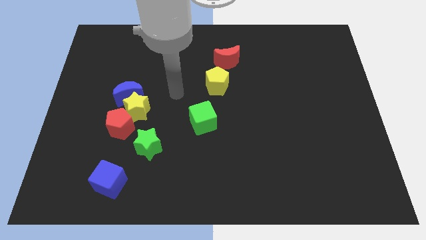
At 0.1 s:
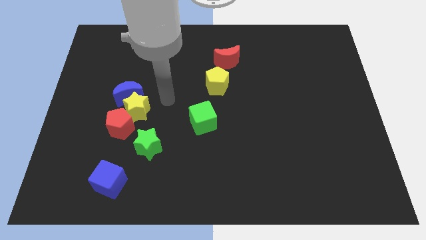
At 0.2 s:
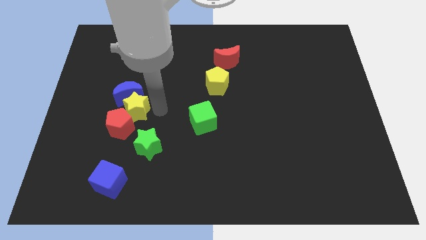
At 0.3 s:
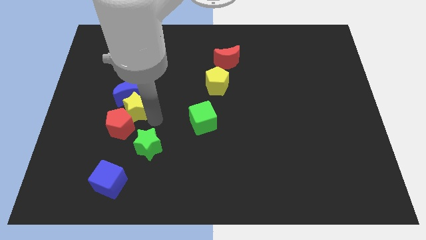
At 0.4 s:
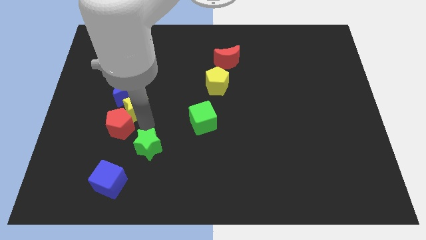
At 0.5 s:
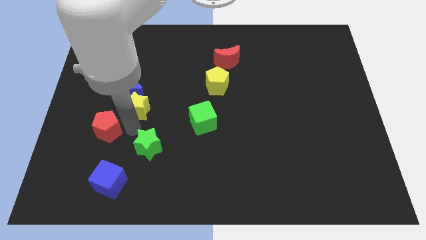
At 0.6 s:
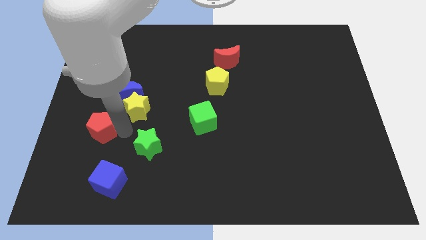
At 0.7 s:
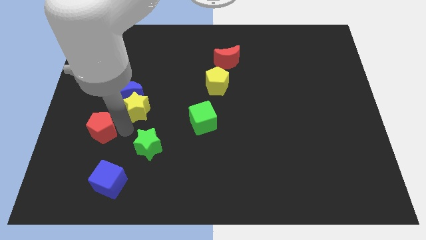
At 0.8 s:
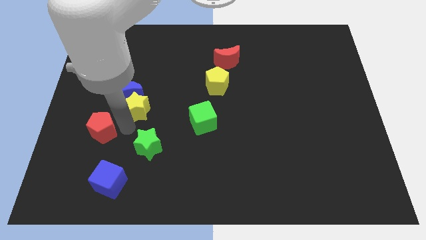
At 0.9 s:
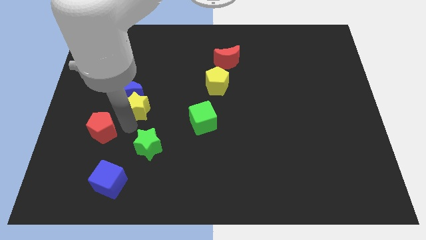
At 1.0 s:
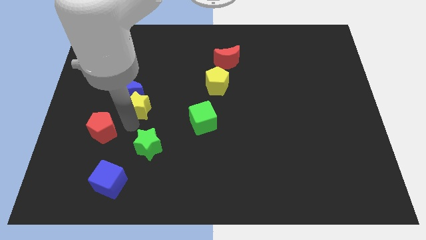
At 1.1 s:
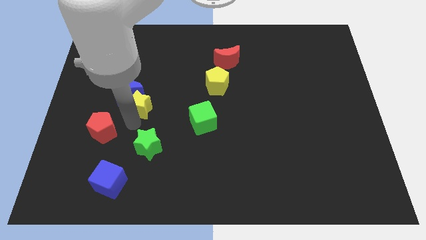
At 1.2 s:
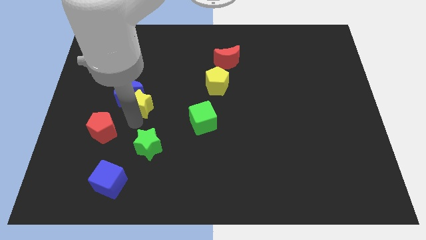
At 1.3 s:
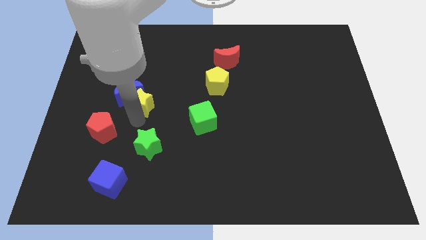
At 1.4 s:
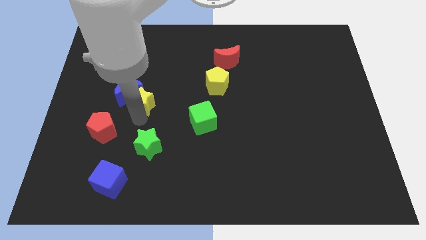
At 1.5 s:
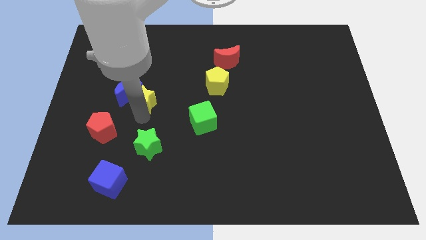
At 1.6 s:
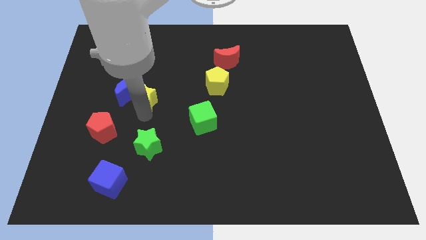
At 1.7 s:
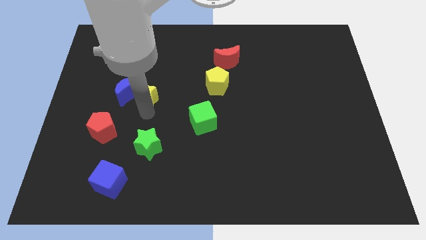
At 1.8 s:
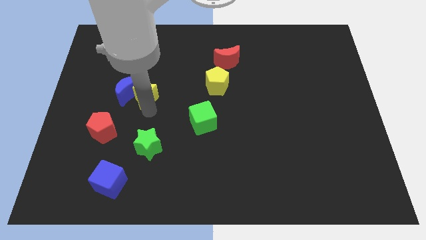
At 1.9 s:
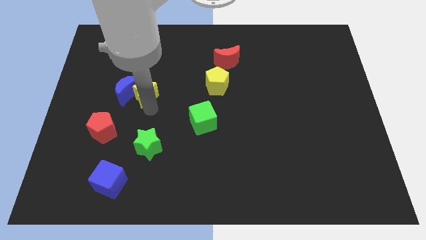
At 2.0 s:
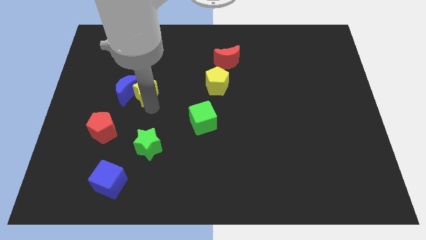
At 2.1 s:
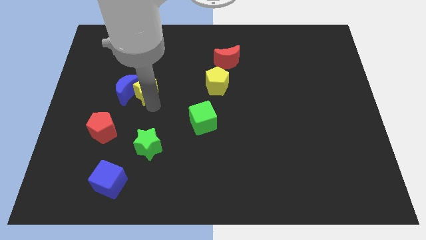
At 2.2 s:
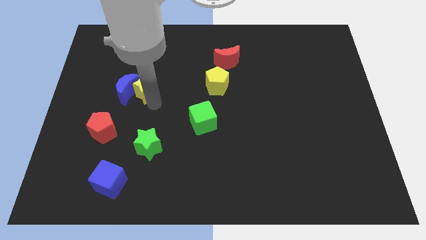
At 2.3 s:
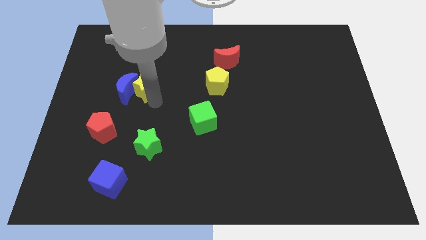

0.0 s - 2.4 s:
pull the yellow star apart from the group

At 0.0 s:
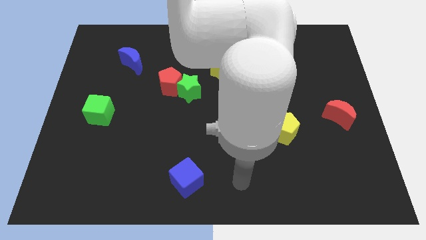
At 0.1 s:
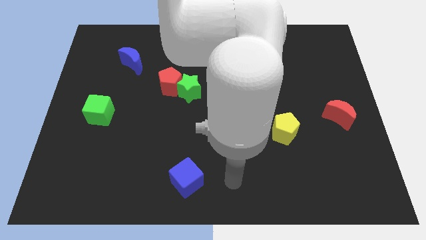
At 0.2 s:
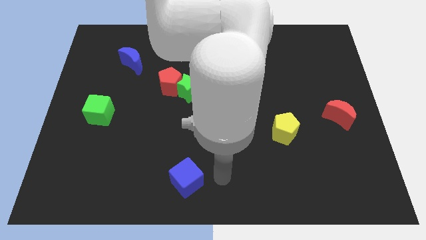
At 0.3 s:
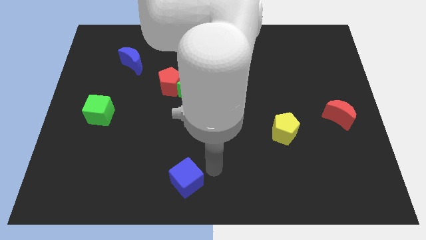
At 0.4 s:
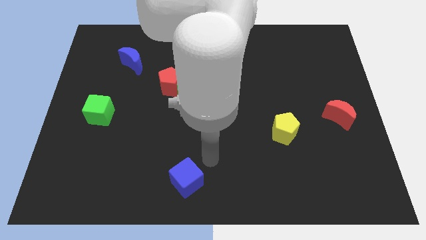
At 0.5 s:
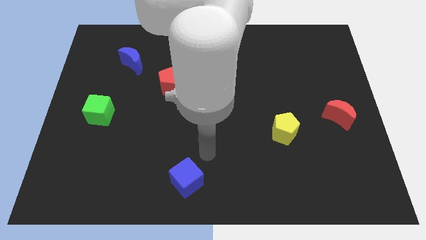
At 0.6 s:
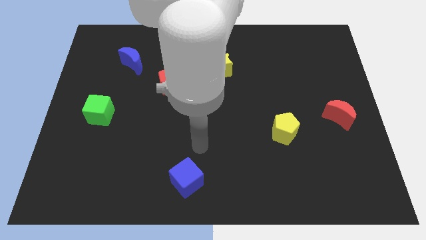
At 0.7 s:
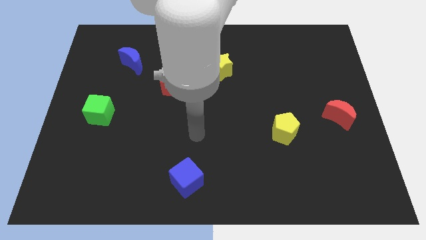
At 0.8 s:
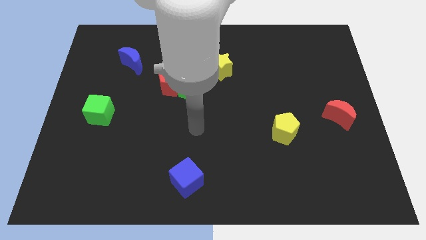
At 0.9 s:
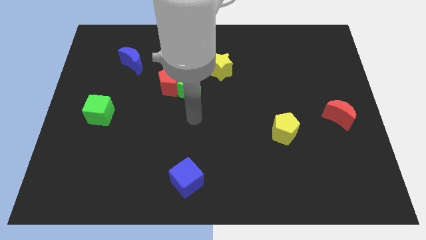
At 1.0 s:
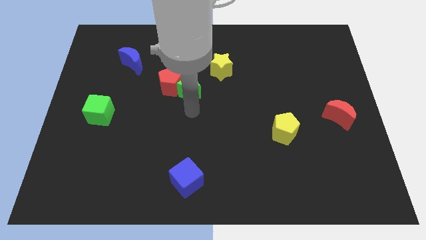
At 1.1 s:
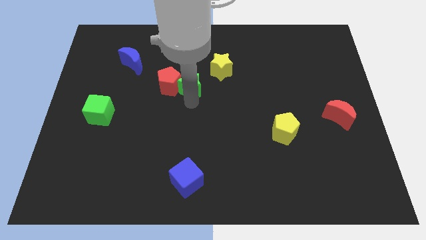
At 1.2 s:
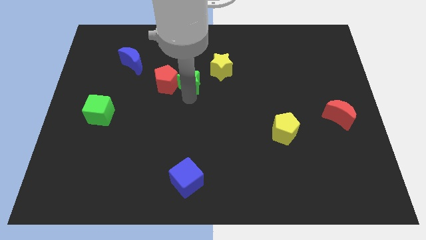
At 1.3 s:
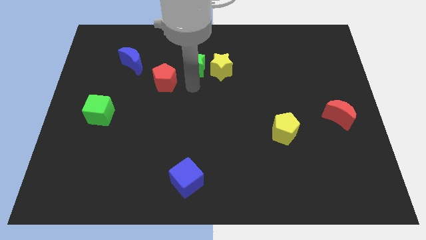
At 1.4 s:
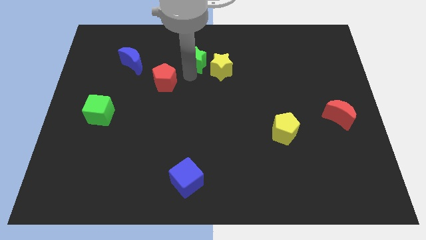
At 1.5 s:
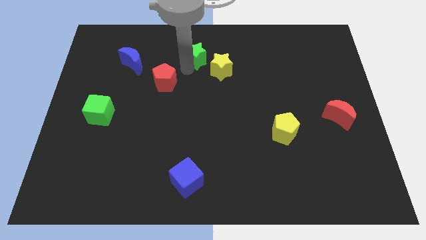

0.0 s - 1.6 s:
pull the red pentagon apart from the green star

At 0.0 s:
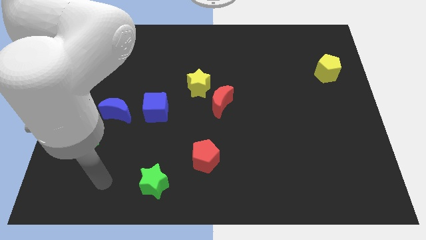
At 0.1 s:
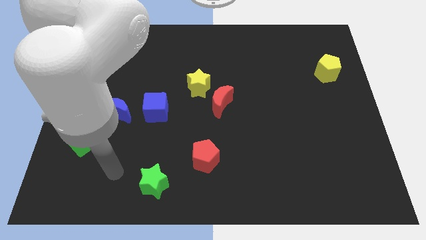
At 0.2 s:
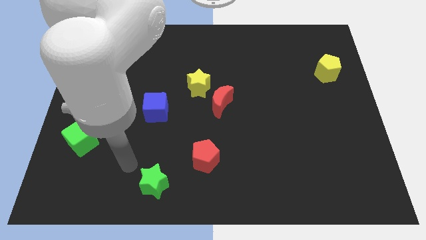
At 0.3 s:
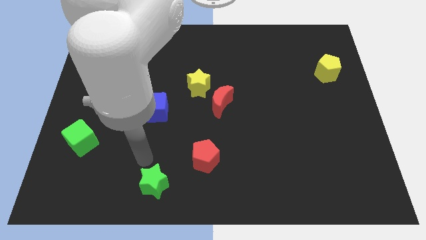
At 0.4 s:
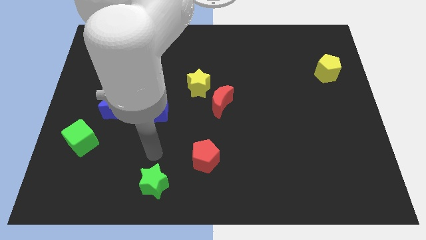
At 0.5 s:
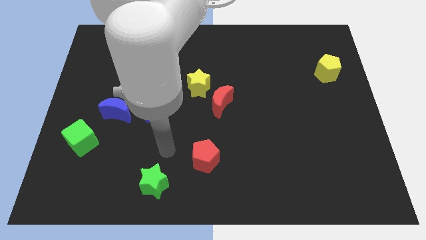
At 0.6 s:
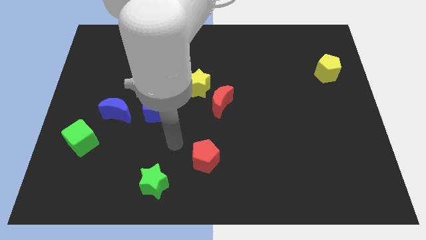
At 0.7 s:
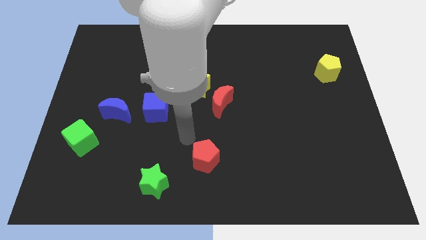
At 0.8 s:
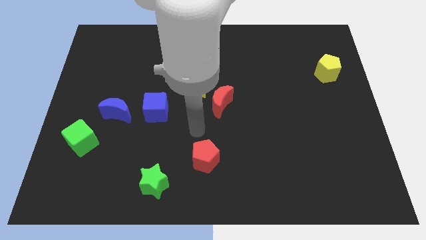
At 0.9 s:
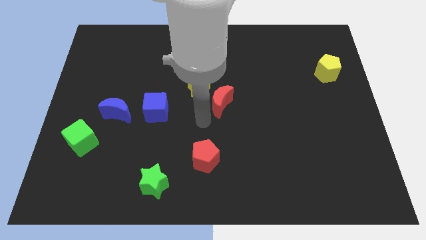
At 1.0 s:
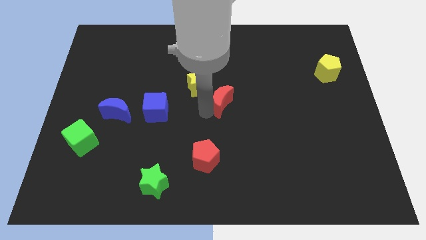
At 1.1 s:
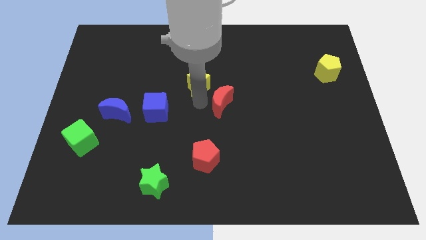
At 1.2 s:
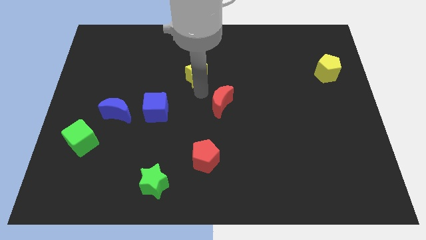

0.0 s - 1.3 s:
separate the red moon from the yellow star

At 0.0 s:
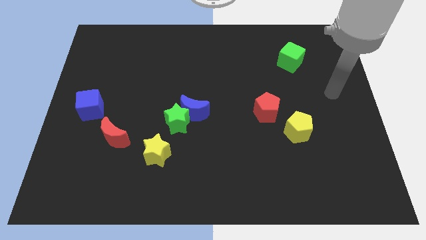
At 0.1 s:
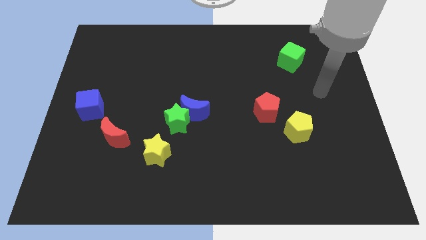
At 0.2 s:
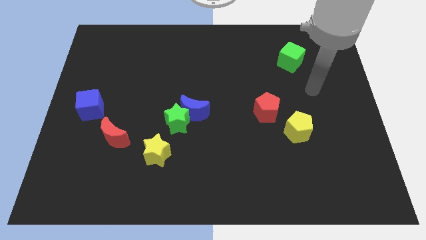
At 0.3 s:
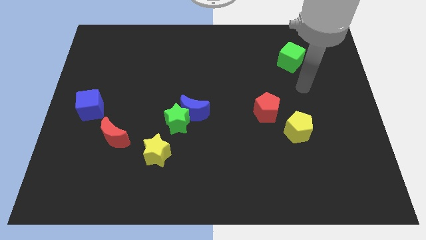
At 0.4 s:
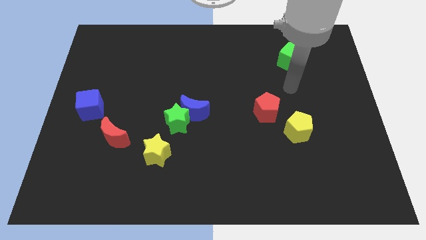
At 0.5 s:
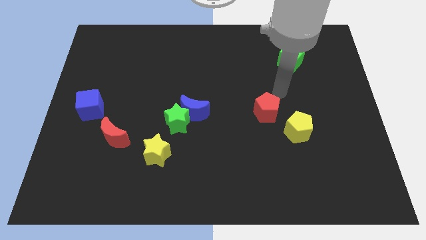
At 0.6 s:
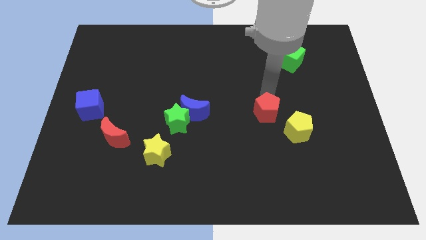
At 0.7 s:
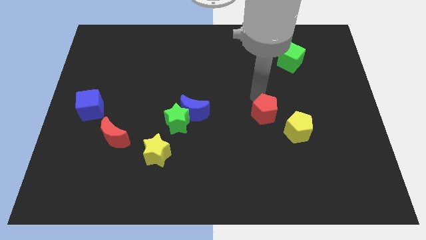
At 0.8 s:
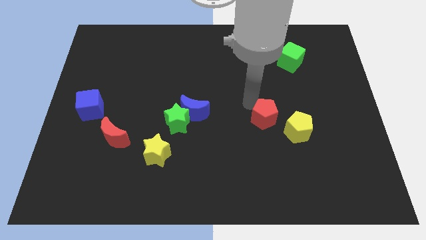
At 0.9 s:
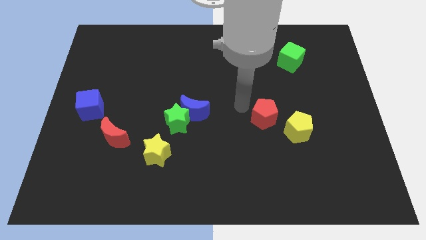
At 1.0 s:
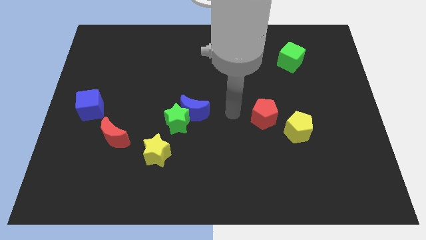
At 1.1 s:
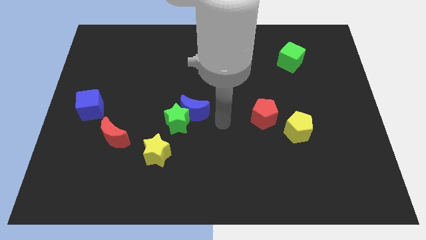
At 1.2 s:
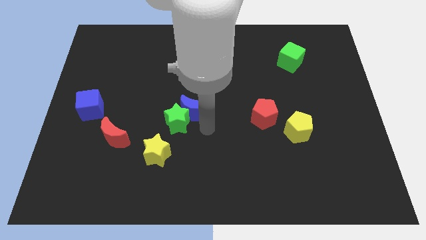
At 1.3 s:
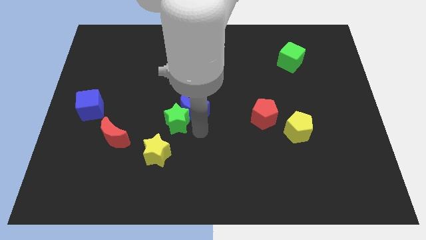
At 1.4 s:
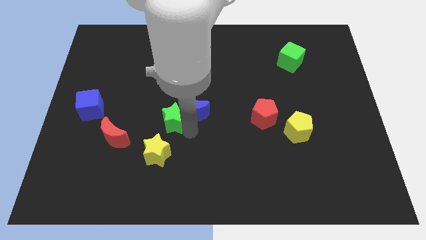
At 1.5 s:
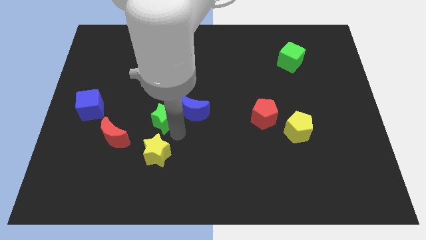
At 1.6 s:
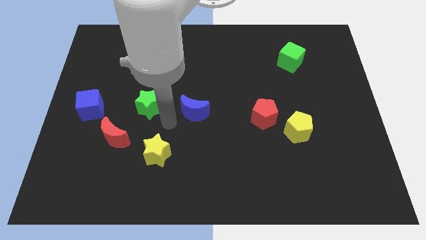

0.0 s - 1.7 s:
move the blue moon away from the green star

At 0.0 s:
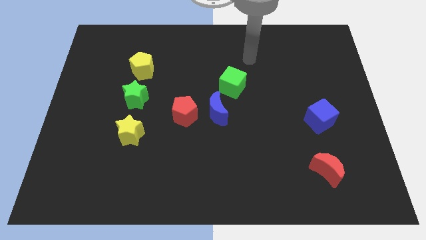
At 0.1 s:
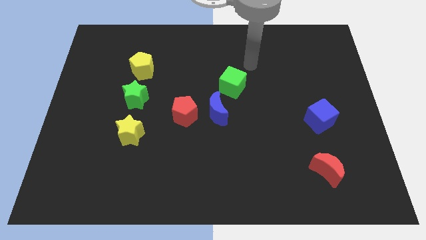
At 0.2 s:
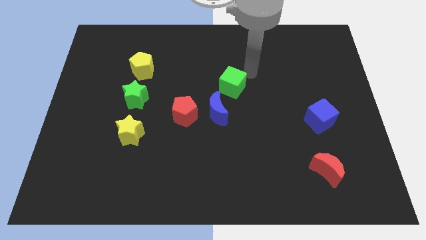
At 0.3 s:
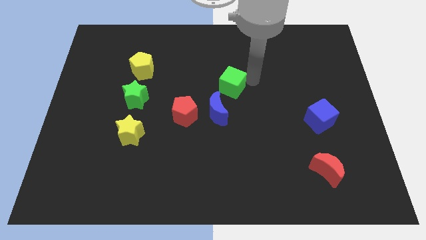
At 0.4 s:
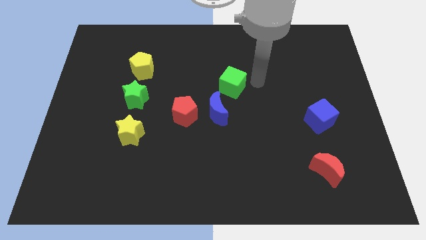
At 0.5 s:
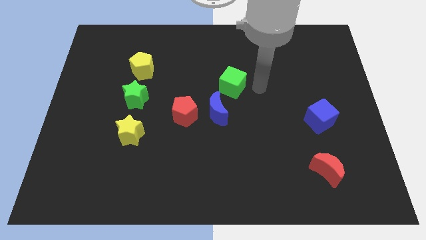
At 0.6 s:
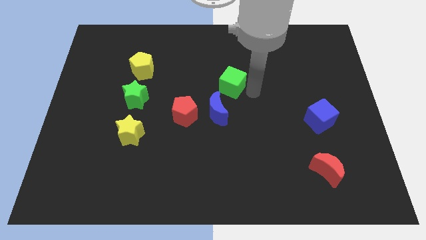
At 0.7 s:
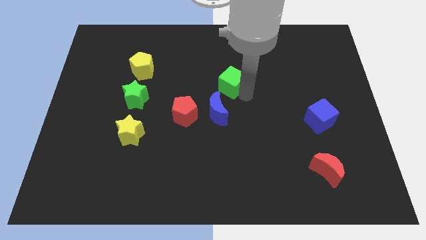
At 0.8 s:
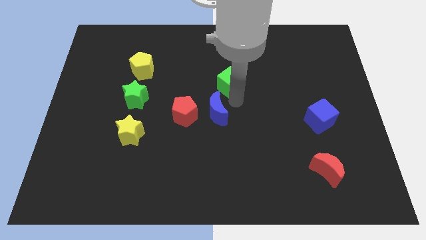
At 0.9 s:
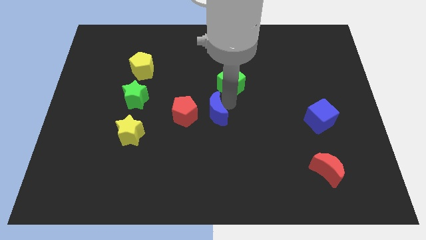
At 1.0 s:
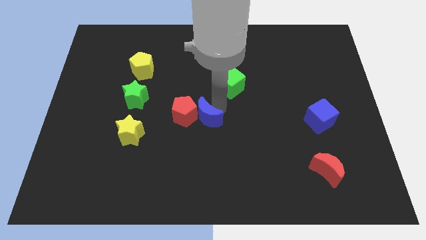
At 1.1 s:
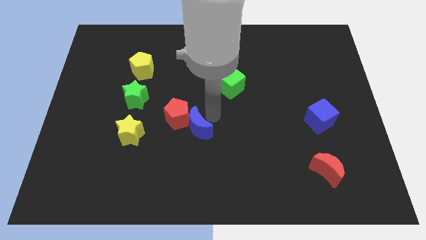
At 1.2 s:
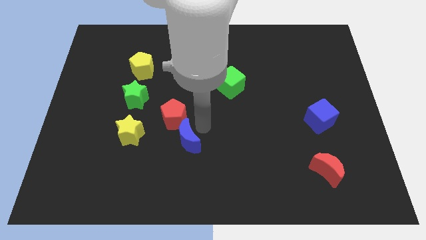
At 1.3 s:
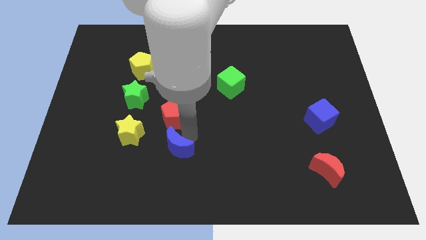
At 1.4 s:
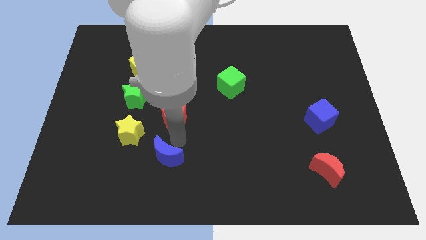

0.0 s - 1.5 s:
pull the red pentagon apart from the blue moon

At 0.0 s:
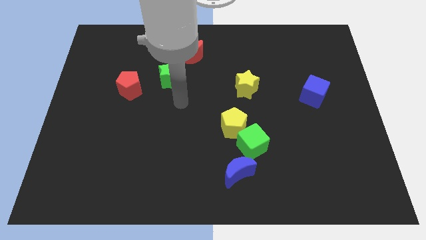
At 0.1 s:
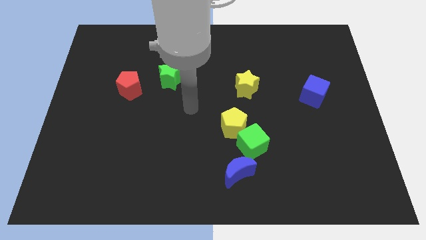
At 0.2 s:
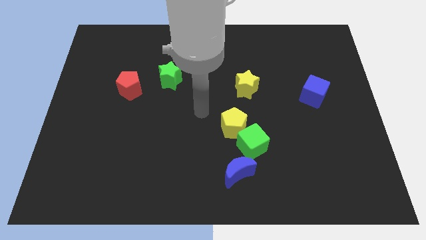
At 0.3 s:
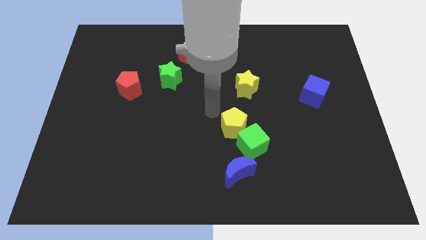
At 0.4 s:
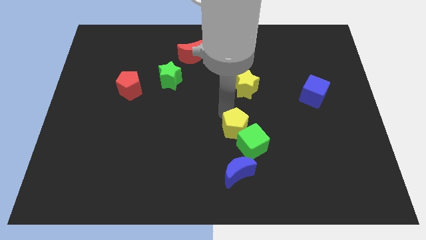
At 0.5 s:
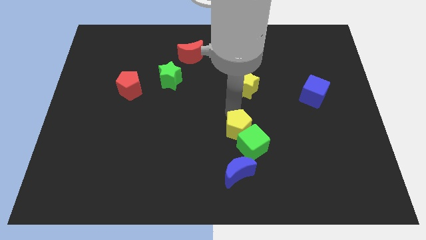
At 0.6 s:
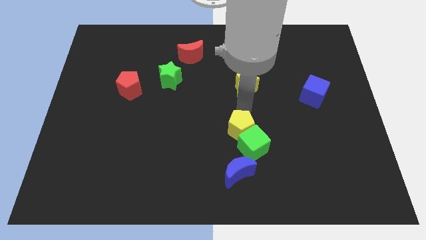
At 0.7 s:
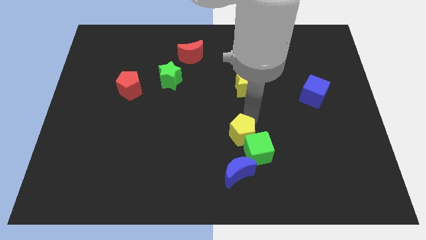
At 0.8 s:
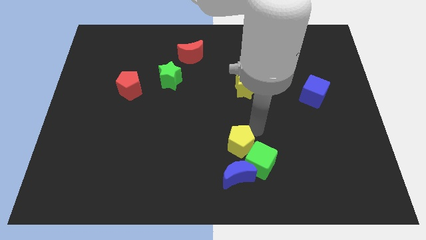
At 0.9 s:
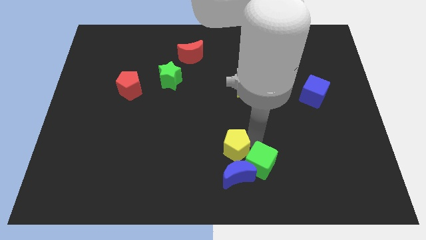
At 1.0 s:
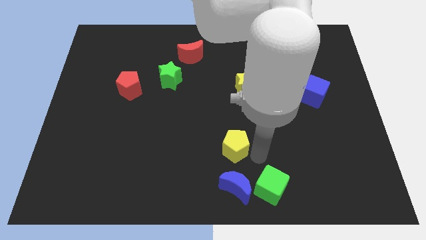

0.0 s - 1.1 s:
pull the yellow pentagon apart from the green cube
